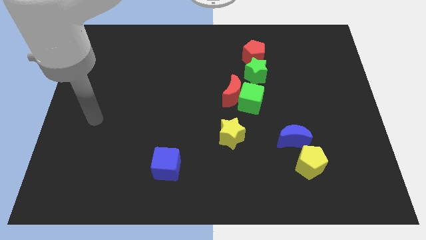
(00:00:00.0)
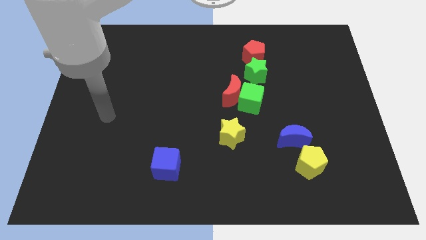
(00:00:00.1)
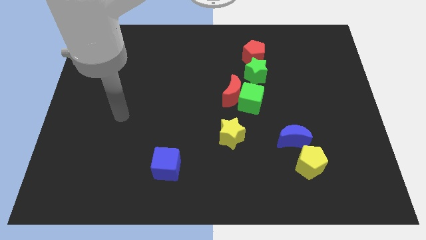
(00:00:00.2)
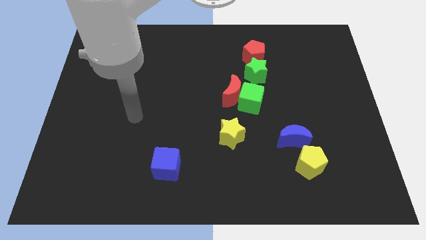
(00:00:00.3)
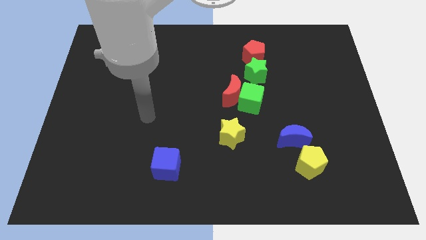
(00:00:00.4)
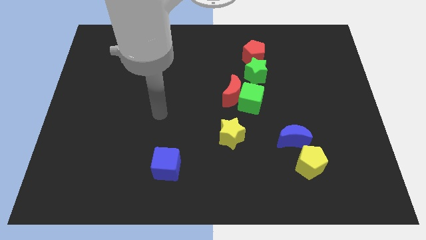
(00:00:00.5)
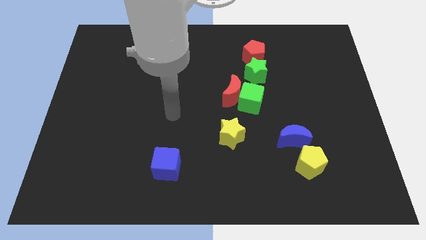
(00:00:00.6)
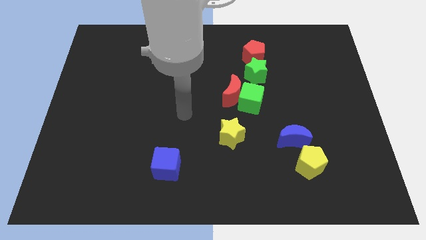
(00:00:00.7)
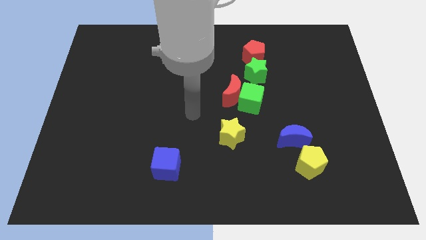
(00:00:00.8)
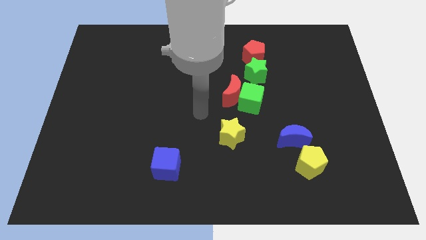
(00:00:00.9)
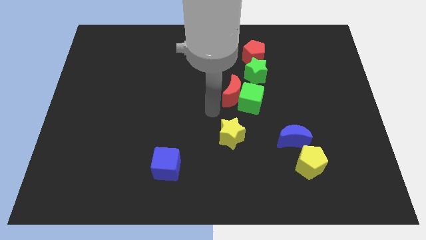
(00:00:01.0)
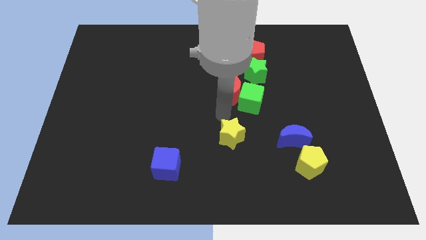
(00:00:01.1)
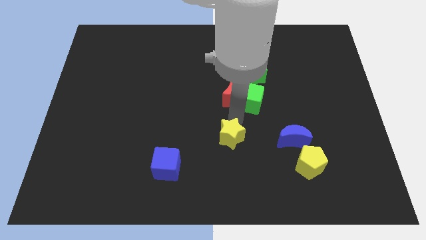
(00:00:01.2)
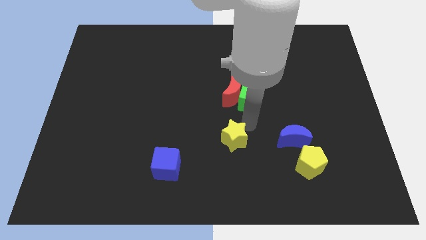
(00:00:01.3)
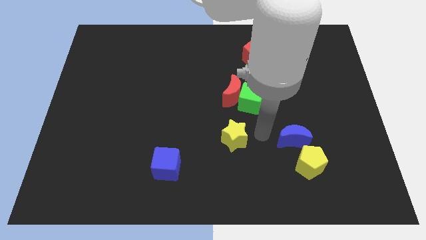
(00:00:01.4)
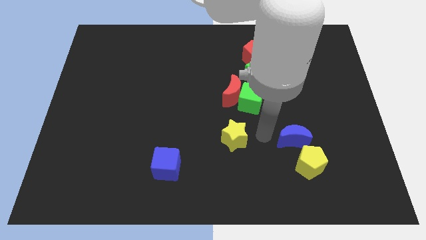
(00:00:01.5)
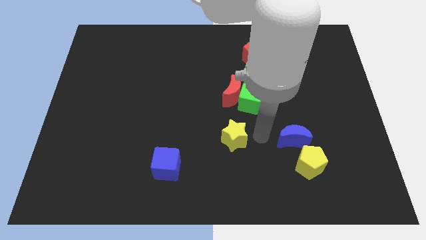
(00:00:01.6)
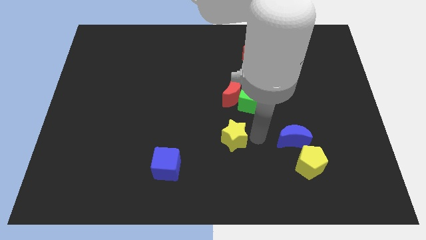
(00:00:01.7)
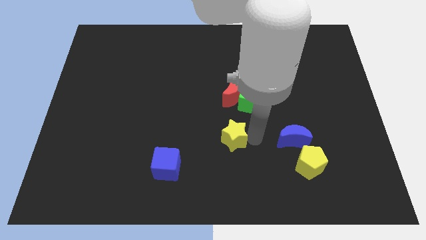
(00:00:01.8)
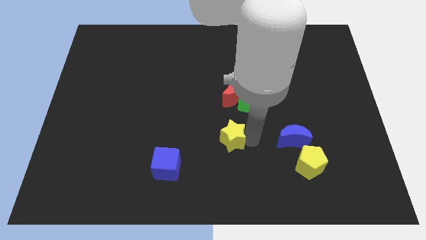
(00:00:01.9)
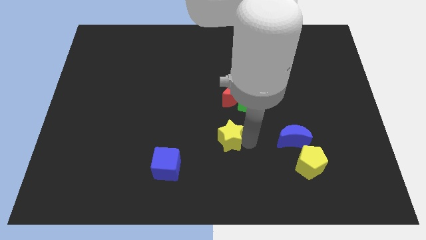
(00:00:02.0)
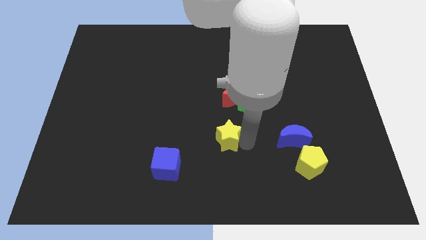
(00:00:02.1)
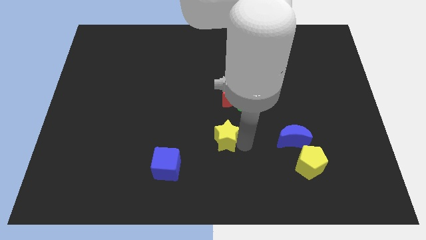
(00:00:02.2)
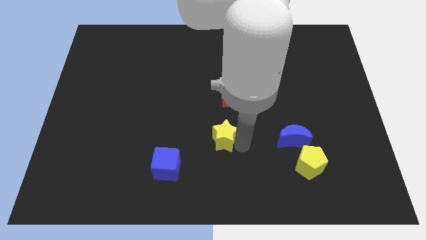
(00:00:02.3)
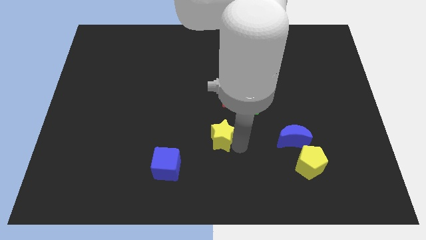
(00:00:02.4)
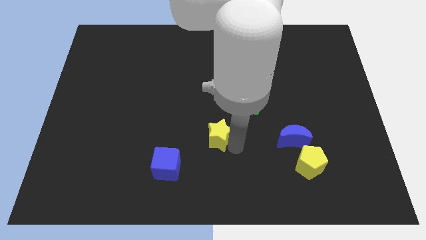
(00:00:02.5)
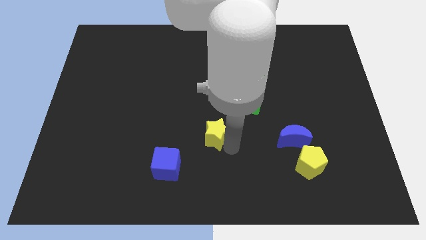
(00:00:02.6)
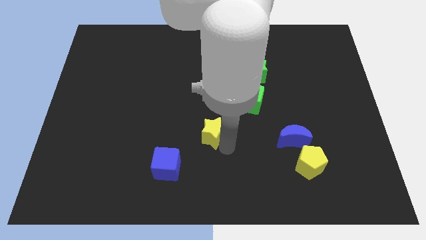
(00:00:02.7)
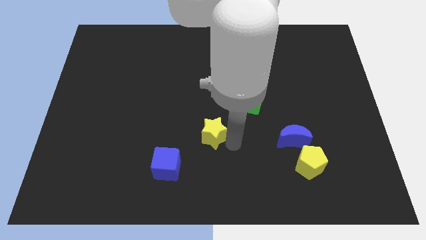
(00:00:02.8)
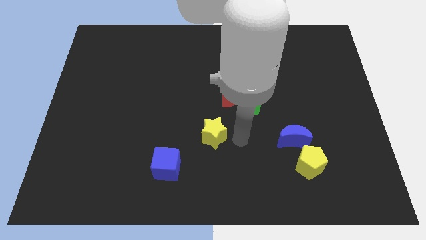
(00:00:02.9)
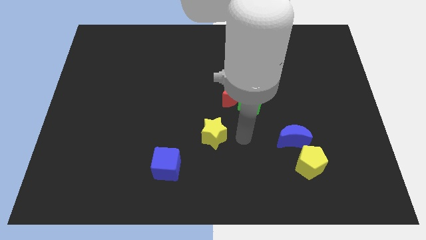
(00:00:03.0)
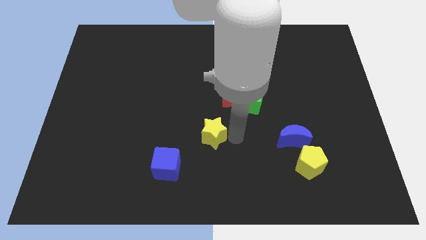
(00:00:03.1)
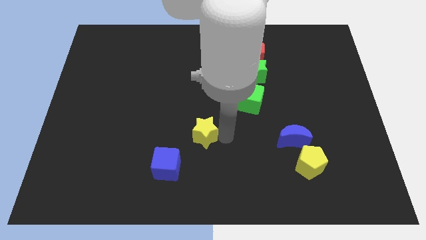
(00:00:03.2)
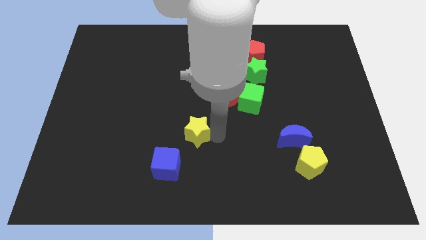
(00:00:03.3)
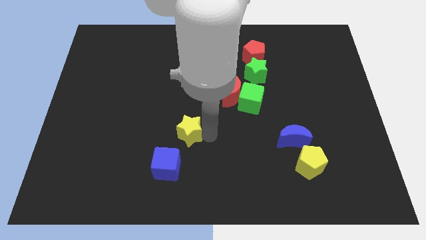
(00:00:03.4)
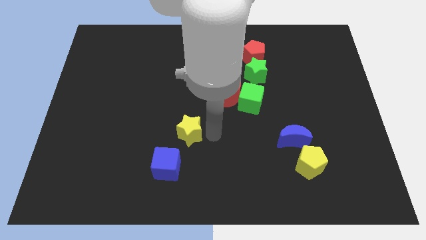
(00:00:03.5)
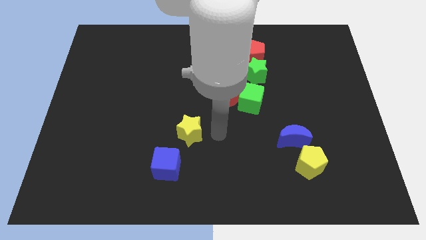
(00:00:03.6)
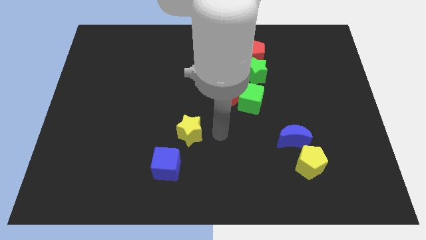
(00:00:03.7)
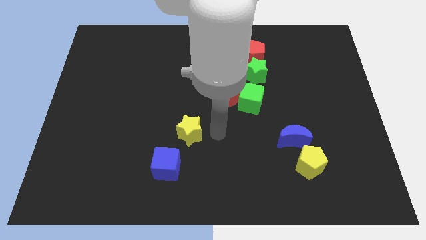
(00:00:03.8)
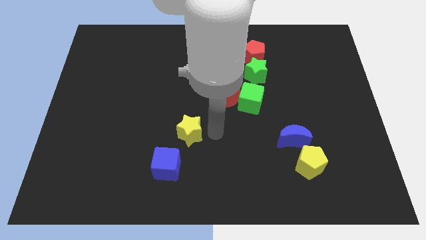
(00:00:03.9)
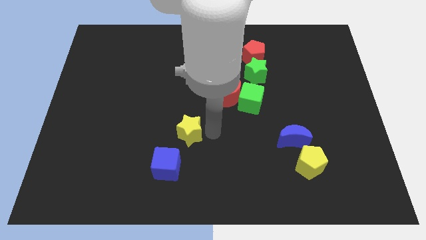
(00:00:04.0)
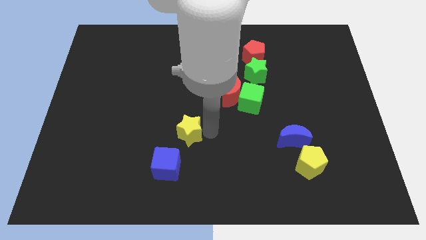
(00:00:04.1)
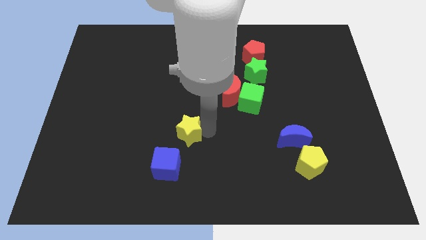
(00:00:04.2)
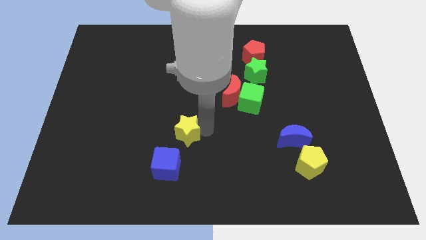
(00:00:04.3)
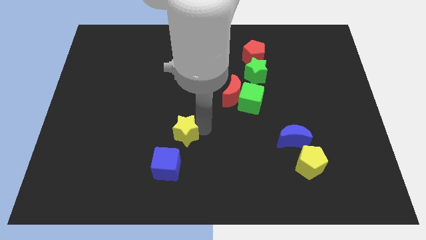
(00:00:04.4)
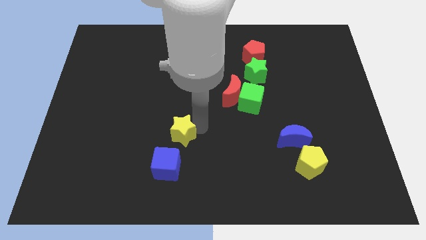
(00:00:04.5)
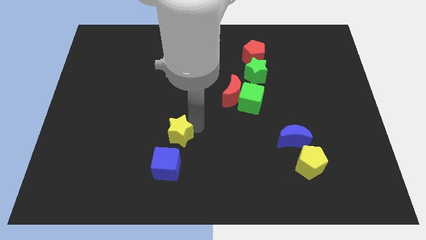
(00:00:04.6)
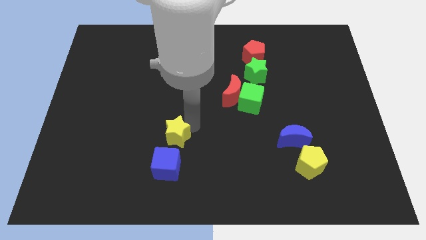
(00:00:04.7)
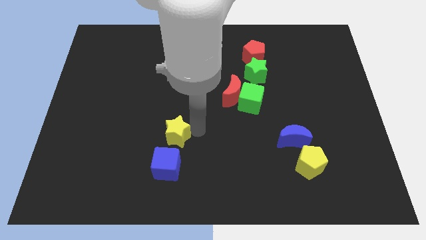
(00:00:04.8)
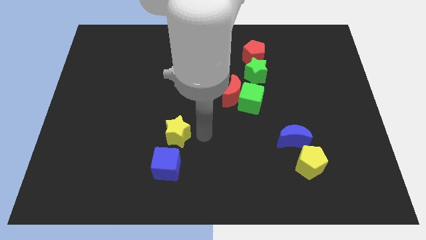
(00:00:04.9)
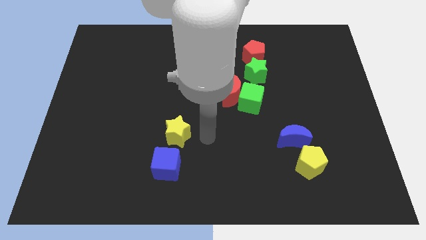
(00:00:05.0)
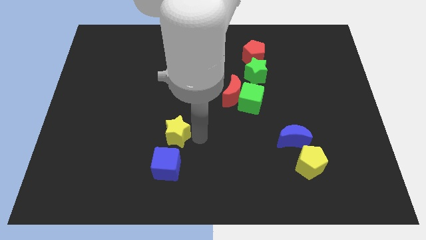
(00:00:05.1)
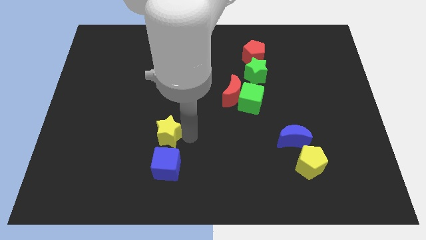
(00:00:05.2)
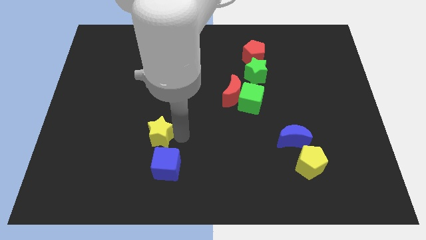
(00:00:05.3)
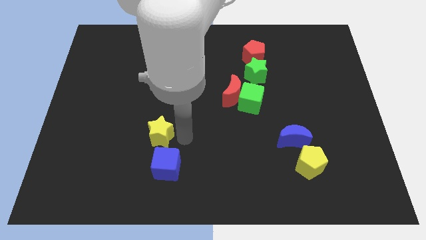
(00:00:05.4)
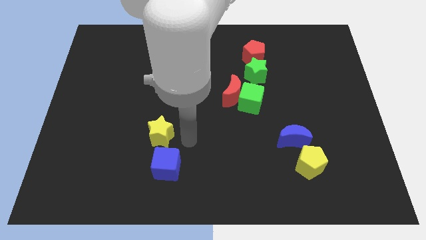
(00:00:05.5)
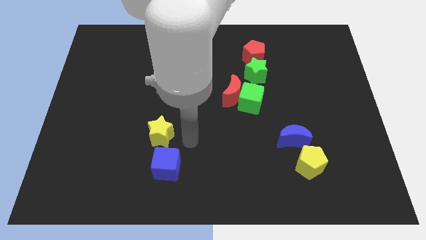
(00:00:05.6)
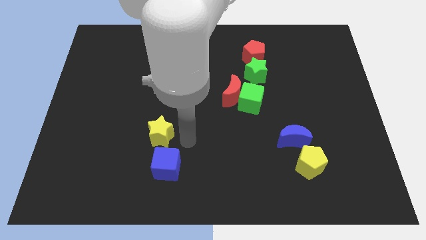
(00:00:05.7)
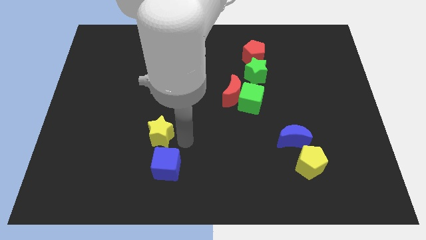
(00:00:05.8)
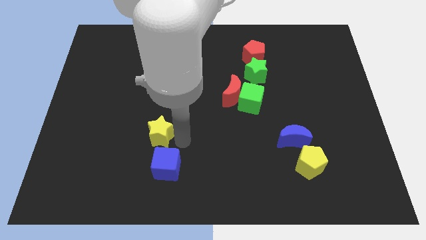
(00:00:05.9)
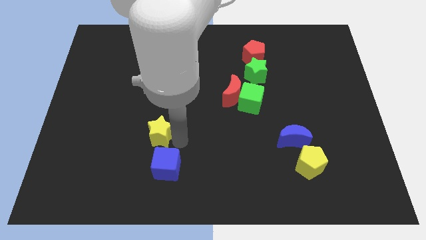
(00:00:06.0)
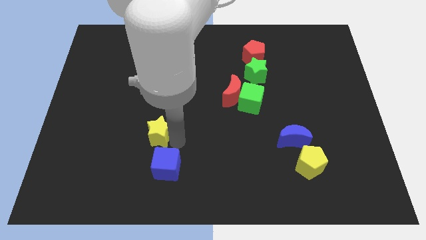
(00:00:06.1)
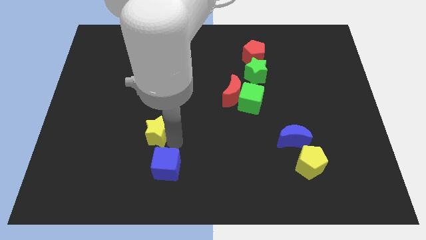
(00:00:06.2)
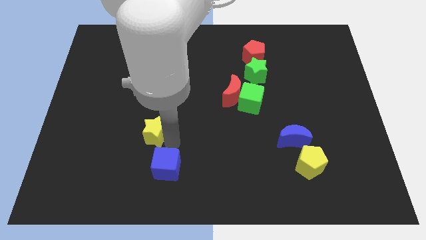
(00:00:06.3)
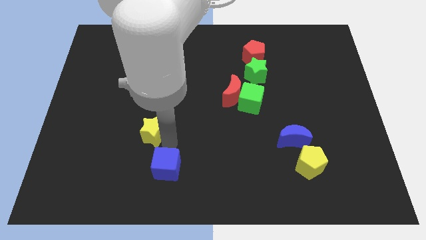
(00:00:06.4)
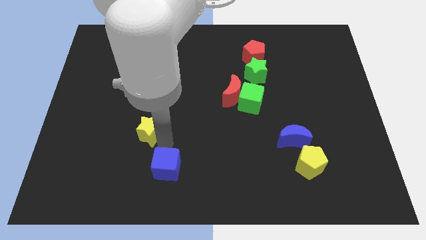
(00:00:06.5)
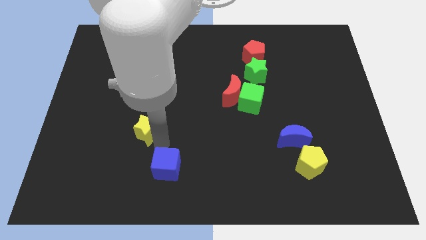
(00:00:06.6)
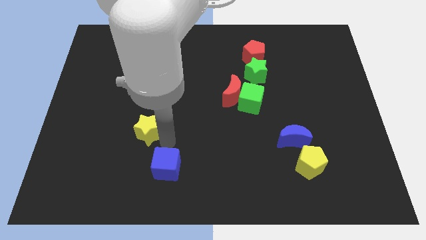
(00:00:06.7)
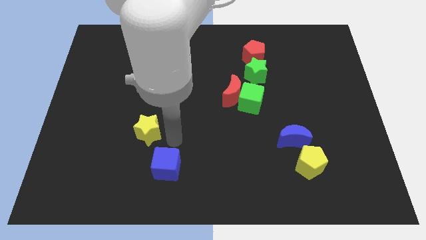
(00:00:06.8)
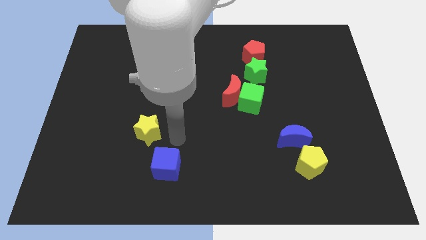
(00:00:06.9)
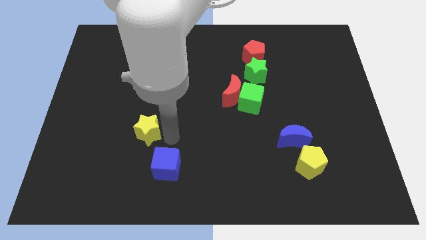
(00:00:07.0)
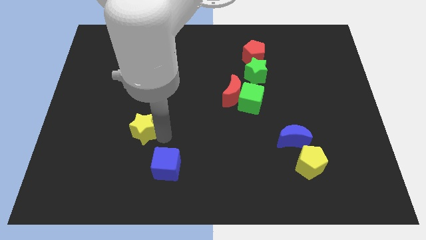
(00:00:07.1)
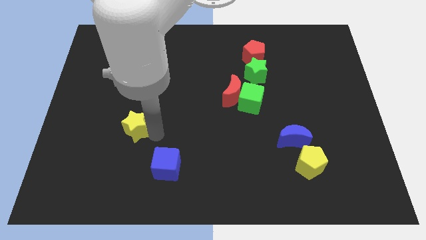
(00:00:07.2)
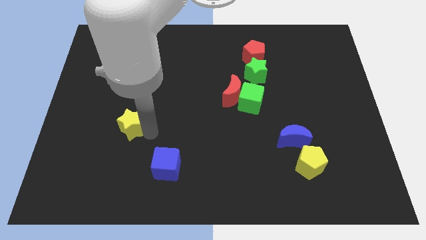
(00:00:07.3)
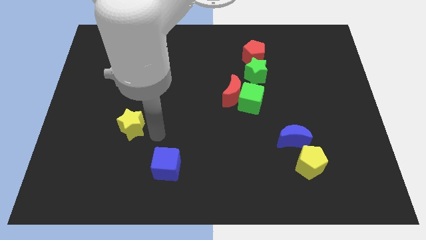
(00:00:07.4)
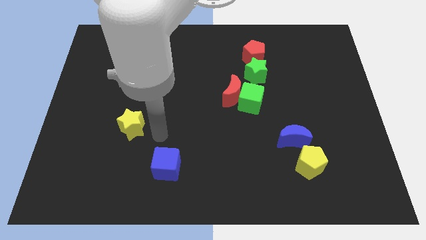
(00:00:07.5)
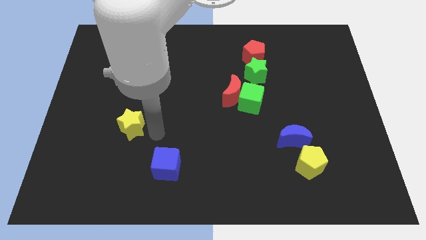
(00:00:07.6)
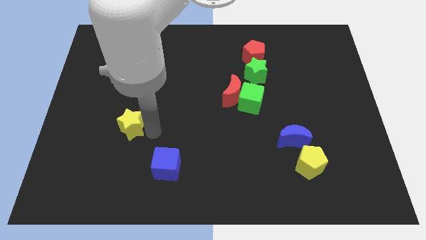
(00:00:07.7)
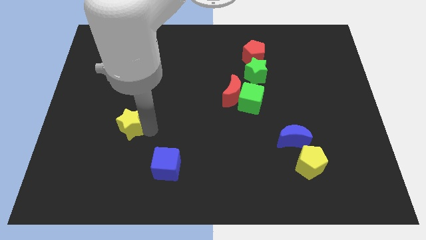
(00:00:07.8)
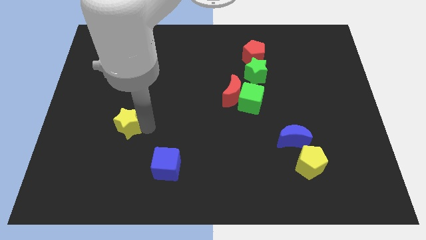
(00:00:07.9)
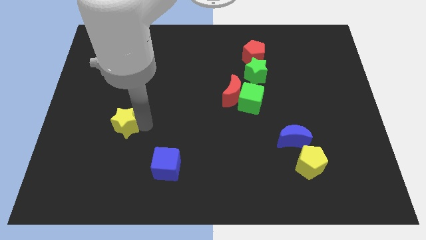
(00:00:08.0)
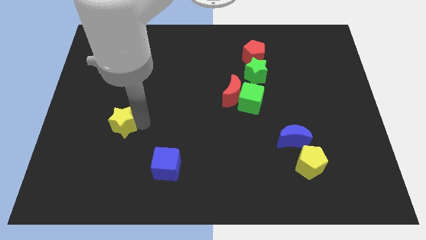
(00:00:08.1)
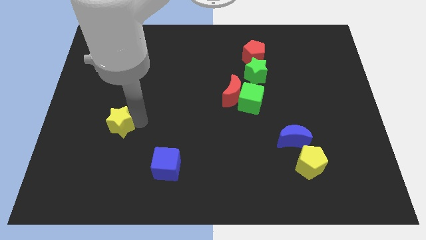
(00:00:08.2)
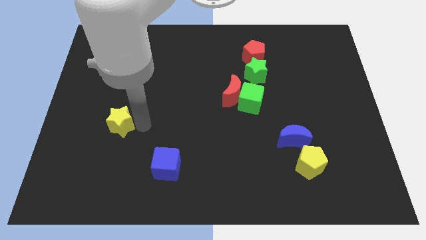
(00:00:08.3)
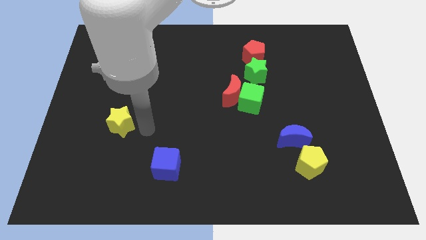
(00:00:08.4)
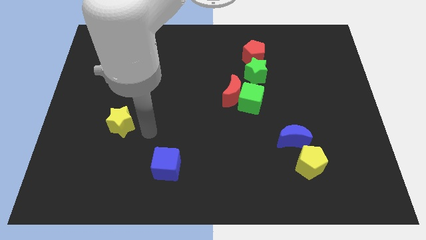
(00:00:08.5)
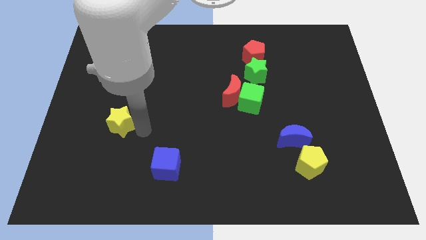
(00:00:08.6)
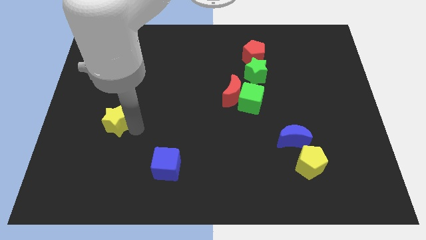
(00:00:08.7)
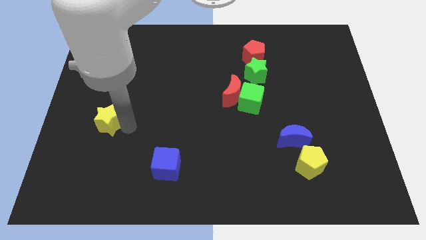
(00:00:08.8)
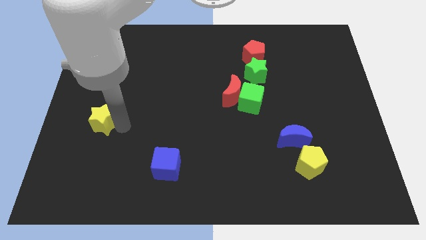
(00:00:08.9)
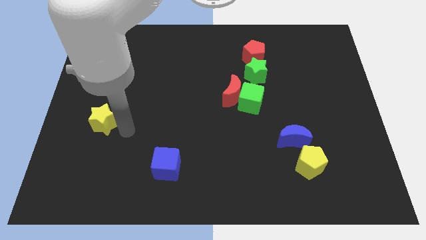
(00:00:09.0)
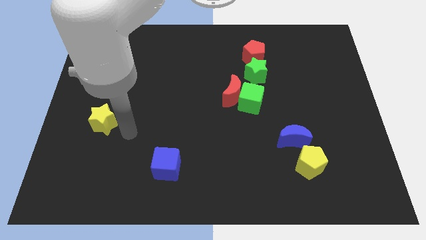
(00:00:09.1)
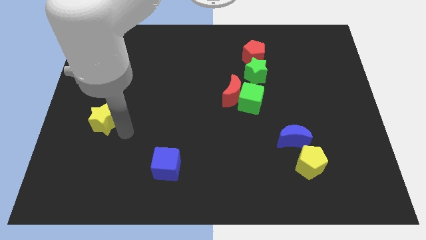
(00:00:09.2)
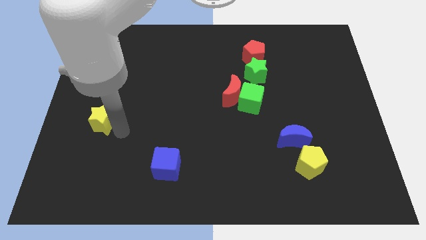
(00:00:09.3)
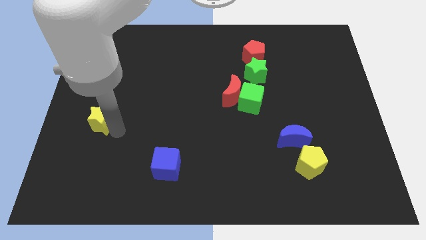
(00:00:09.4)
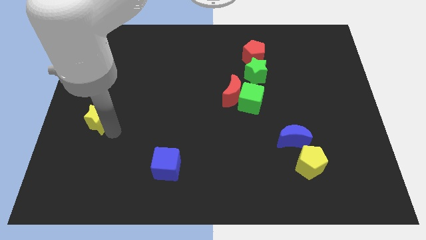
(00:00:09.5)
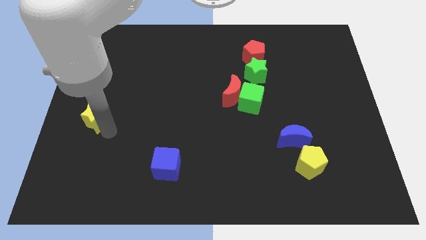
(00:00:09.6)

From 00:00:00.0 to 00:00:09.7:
push the yellow star to the left side of the board
